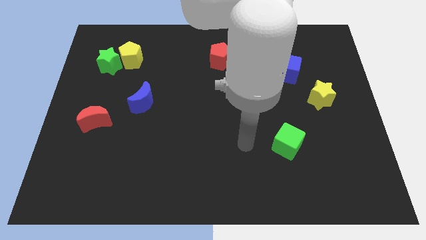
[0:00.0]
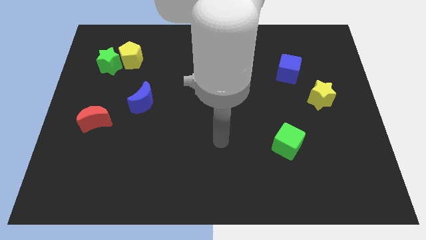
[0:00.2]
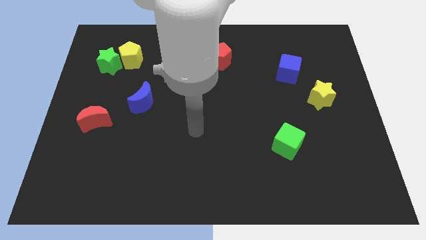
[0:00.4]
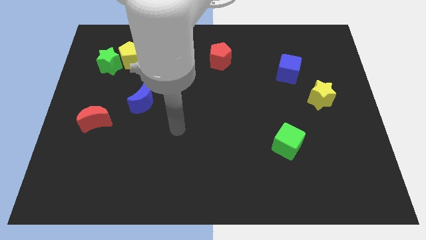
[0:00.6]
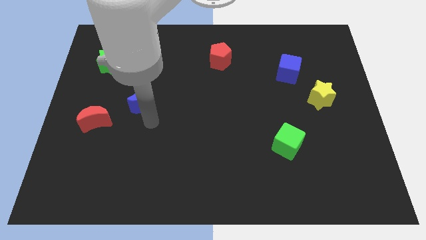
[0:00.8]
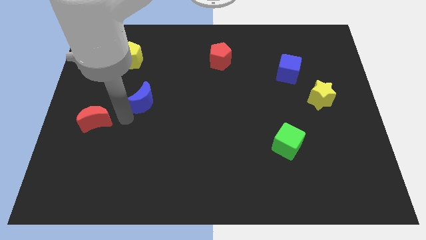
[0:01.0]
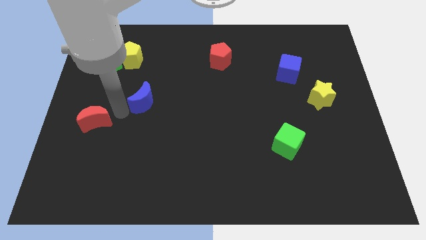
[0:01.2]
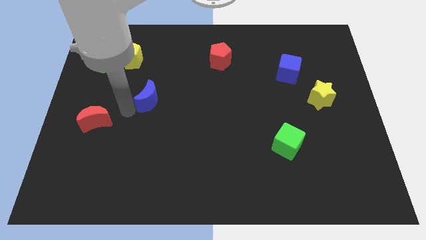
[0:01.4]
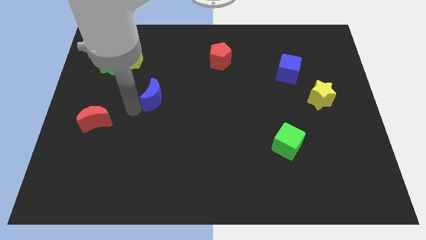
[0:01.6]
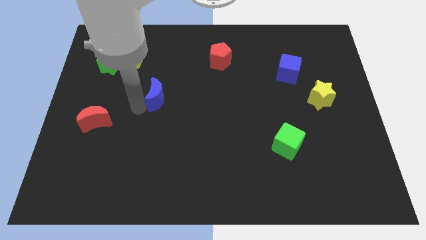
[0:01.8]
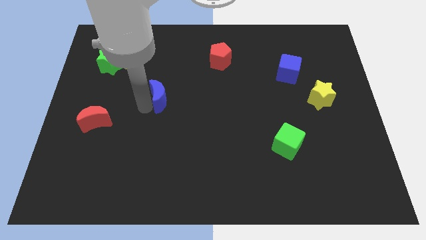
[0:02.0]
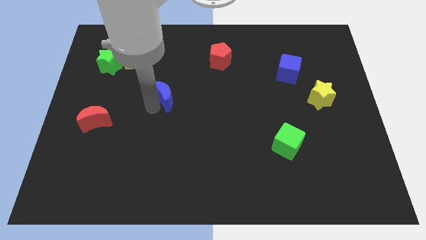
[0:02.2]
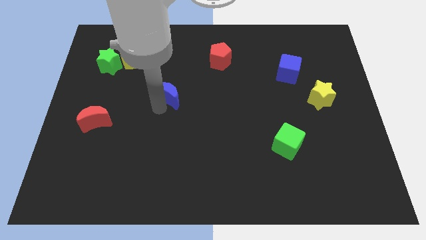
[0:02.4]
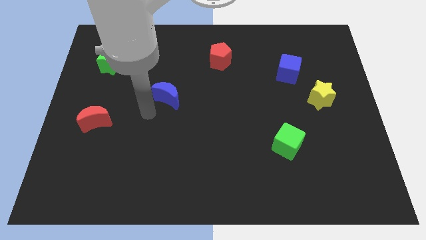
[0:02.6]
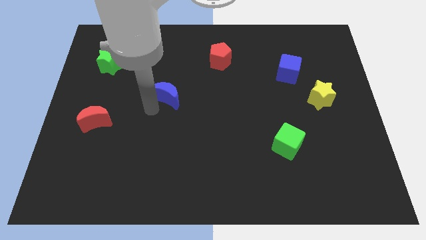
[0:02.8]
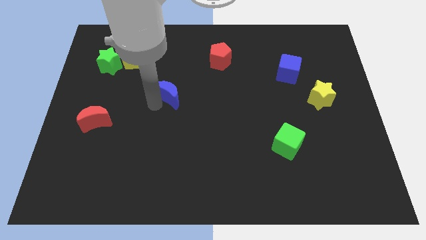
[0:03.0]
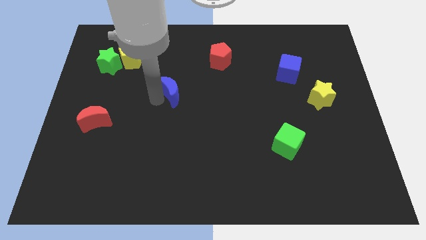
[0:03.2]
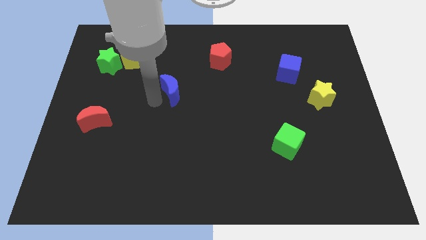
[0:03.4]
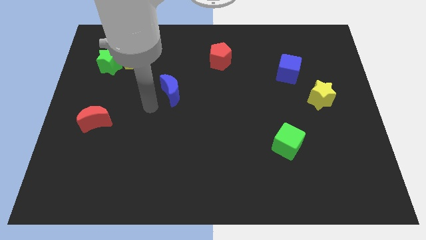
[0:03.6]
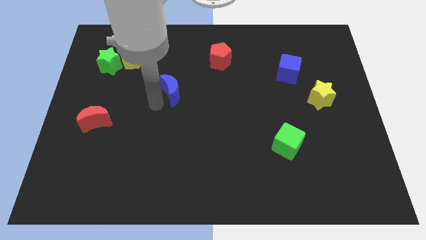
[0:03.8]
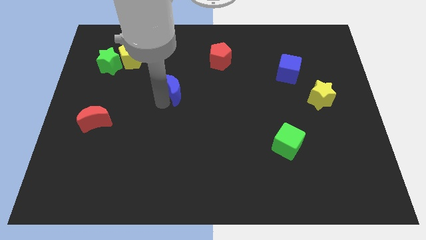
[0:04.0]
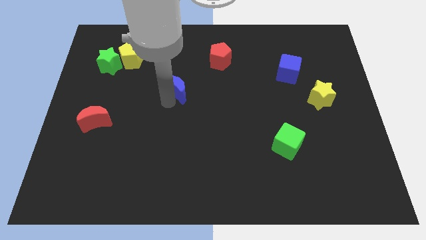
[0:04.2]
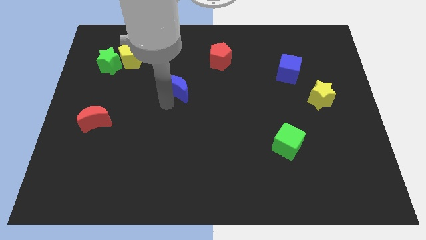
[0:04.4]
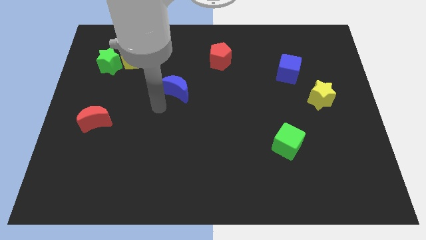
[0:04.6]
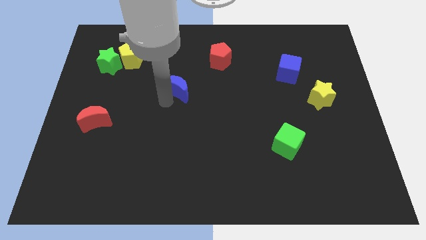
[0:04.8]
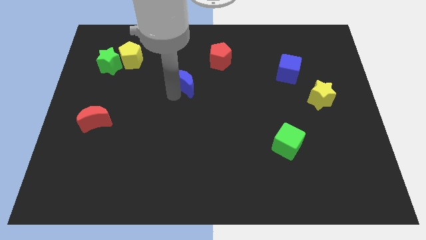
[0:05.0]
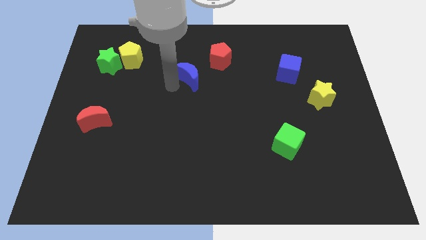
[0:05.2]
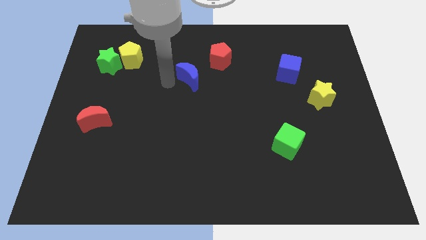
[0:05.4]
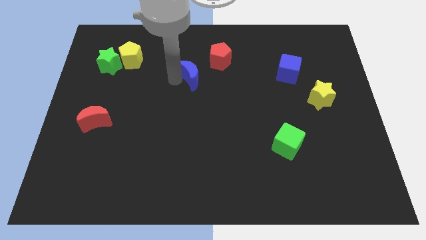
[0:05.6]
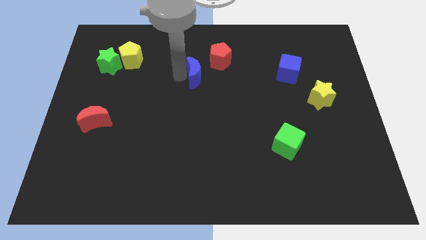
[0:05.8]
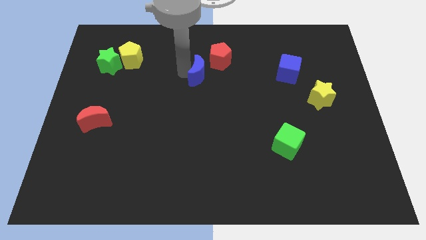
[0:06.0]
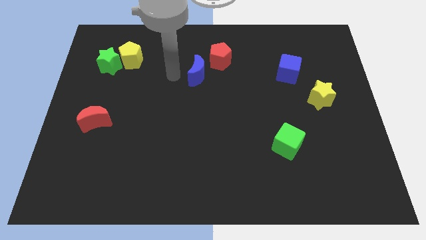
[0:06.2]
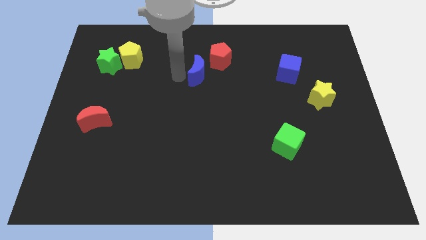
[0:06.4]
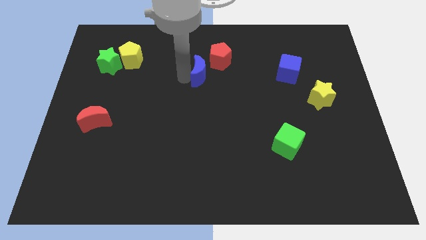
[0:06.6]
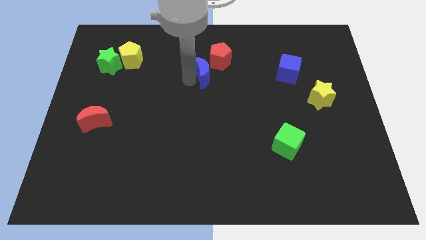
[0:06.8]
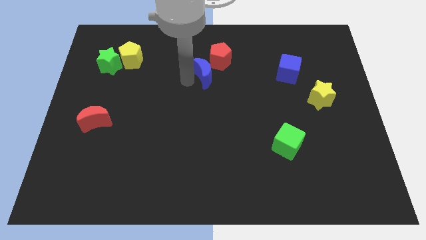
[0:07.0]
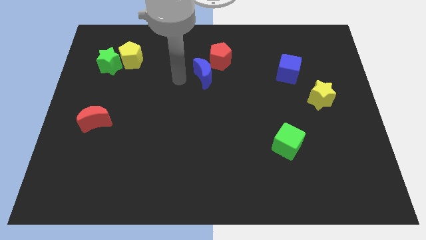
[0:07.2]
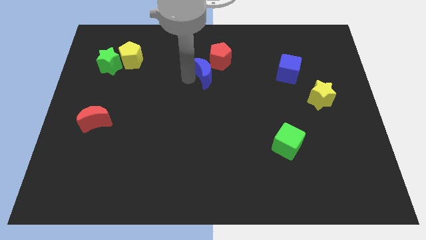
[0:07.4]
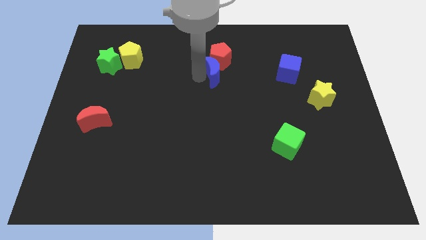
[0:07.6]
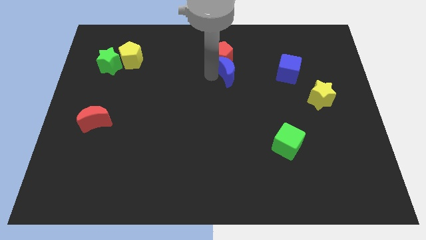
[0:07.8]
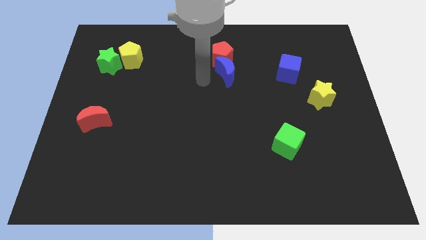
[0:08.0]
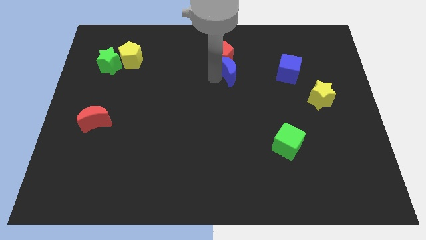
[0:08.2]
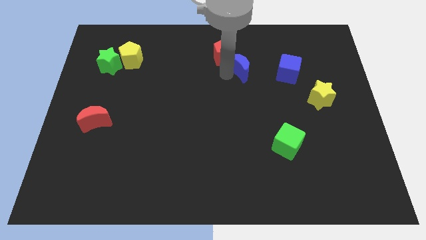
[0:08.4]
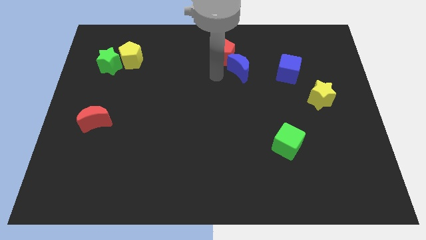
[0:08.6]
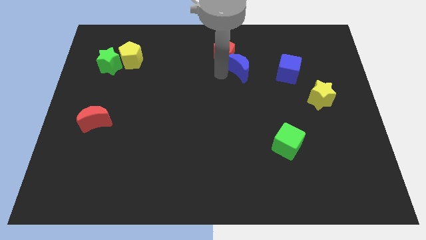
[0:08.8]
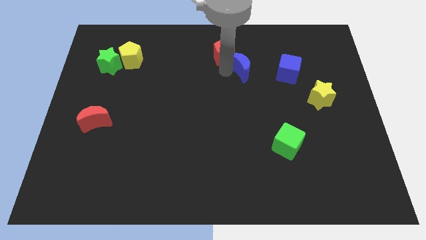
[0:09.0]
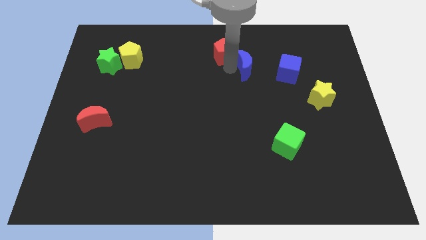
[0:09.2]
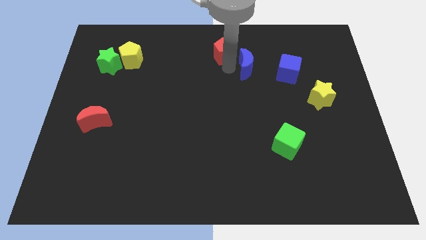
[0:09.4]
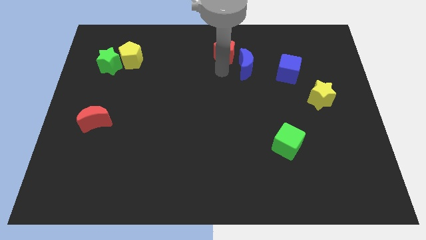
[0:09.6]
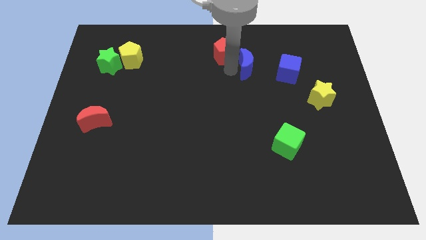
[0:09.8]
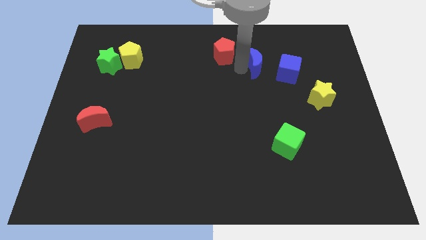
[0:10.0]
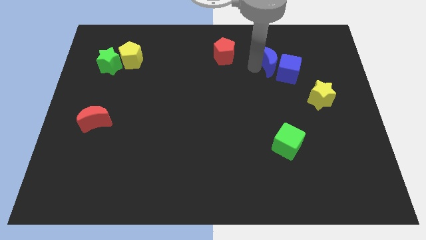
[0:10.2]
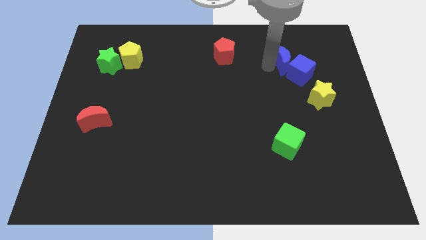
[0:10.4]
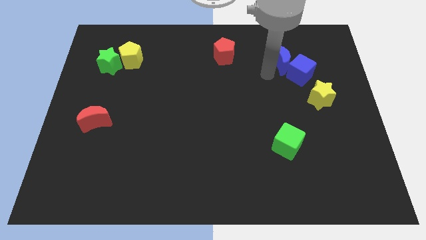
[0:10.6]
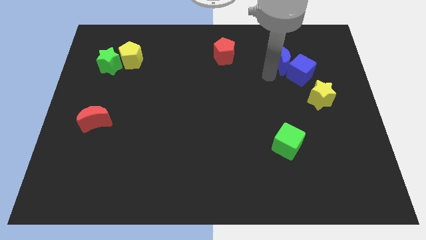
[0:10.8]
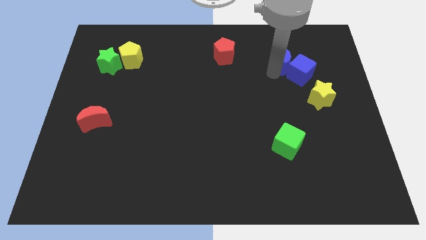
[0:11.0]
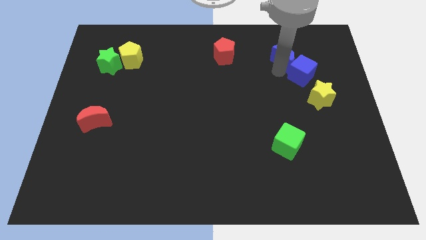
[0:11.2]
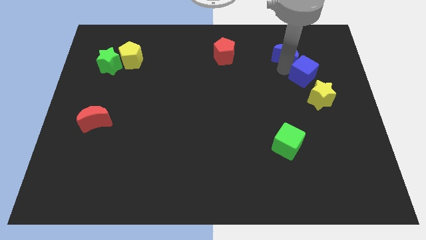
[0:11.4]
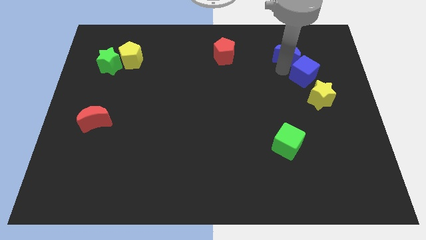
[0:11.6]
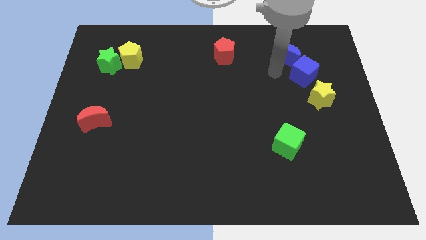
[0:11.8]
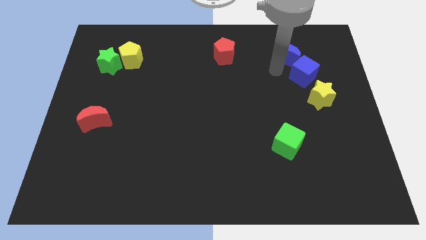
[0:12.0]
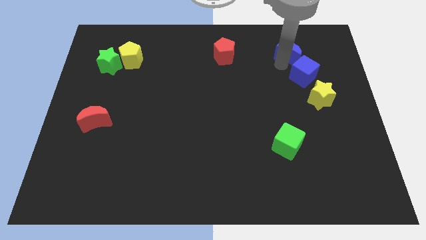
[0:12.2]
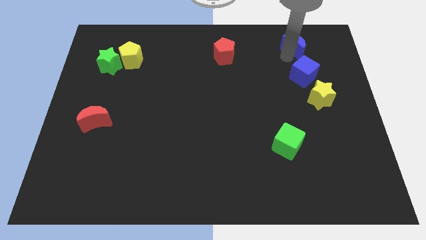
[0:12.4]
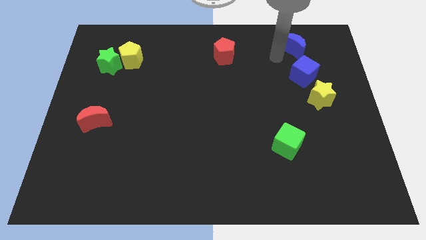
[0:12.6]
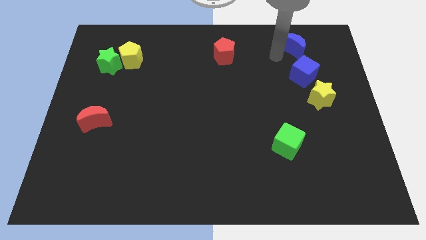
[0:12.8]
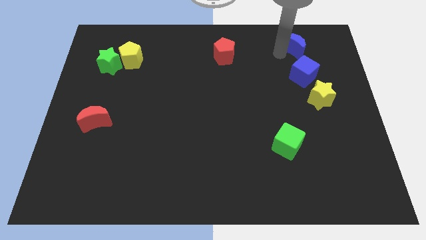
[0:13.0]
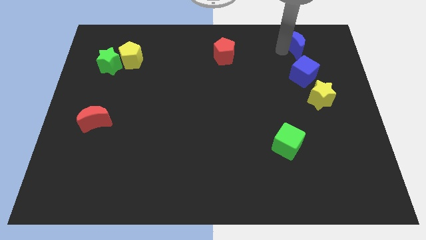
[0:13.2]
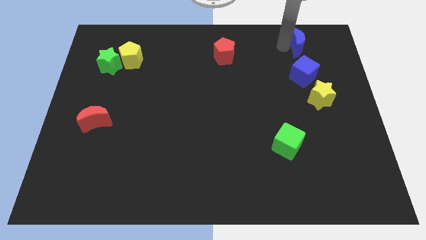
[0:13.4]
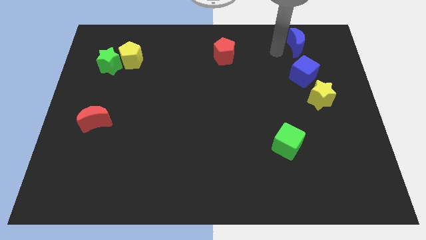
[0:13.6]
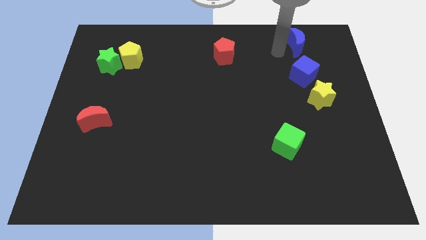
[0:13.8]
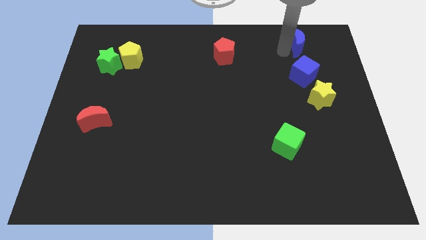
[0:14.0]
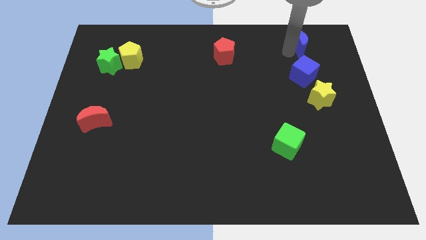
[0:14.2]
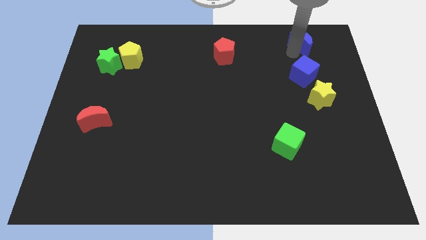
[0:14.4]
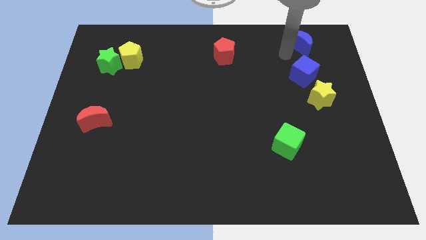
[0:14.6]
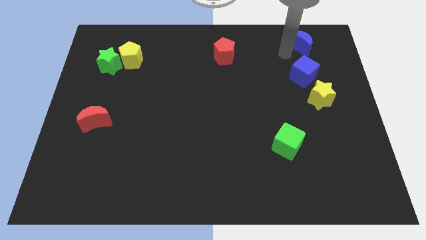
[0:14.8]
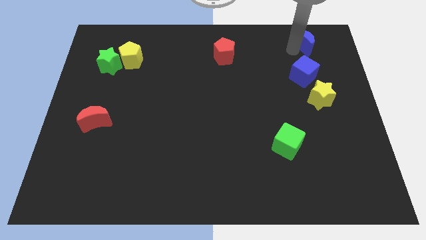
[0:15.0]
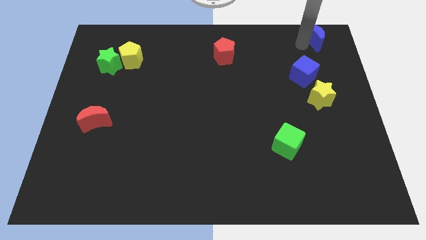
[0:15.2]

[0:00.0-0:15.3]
slide the blue moon to the top right corner
